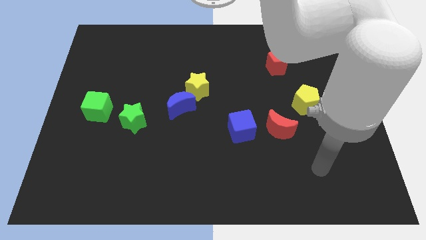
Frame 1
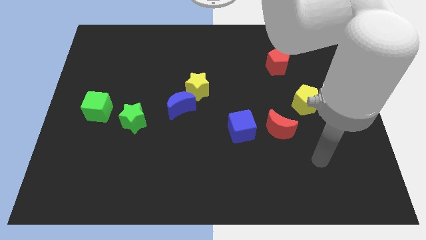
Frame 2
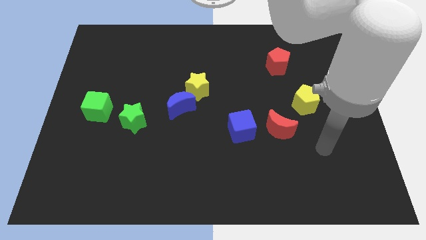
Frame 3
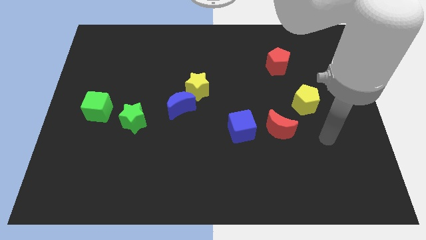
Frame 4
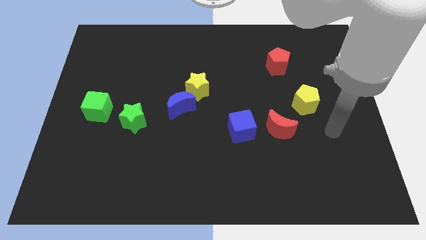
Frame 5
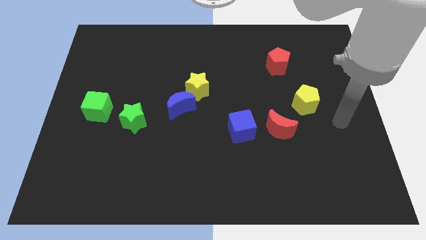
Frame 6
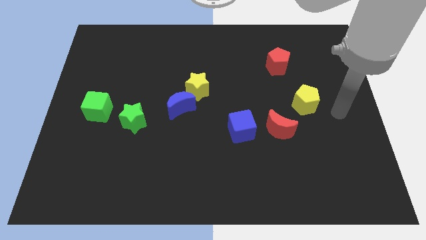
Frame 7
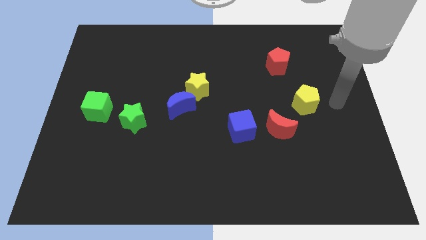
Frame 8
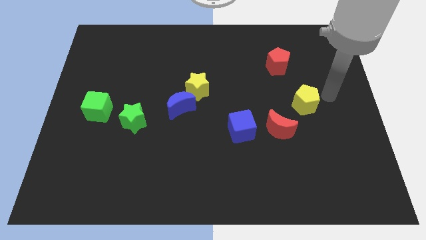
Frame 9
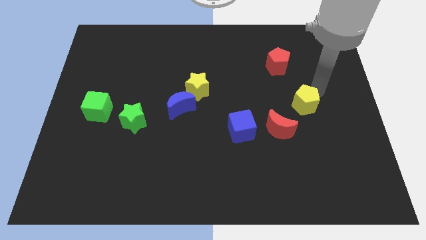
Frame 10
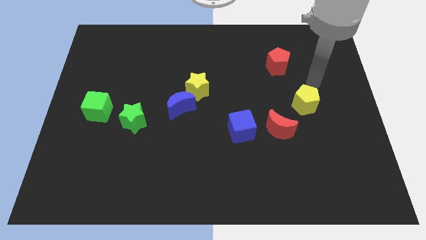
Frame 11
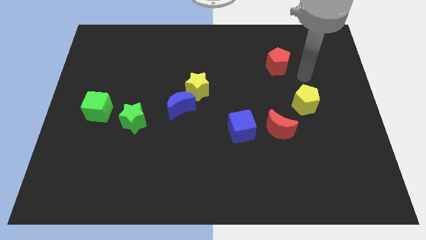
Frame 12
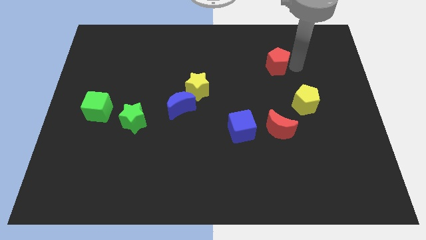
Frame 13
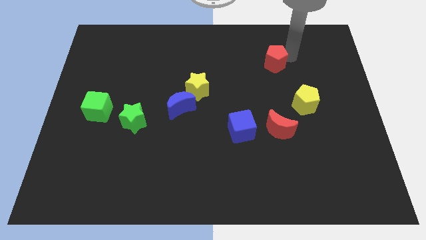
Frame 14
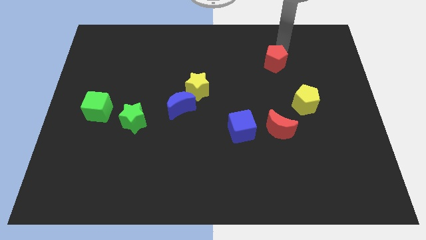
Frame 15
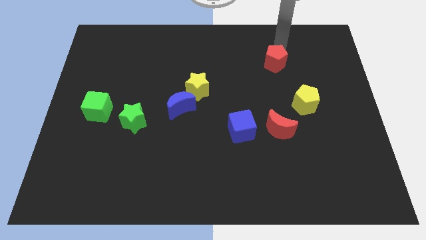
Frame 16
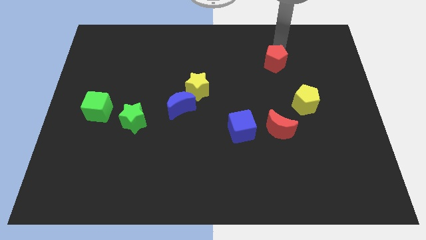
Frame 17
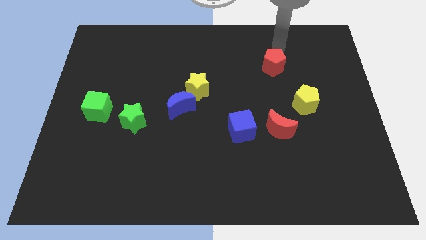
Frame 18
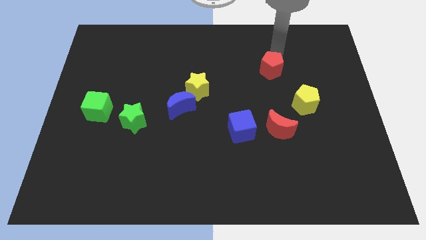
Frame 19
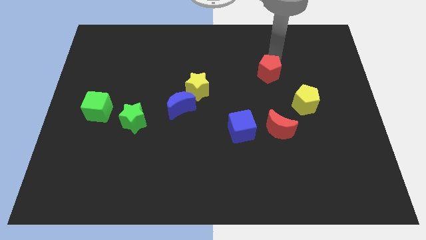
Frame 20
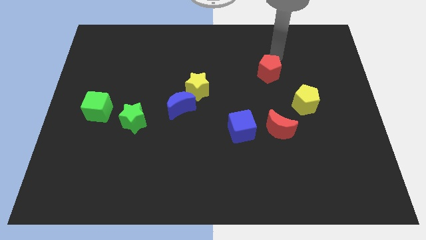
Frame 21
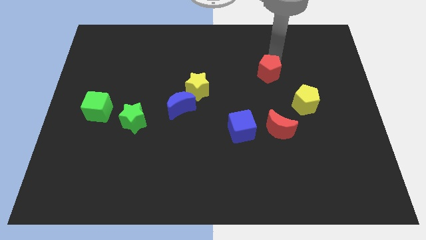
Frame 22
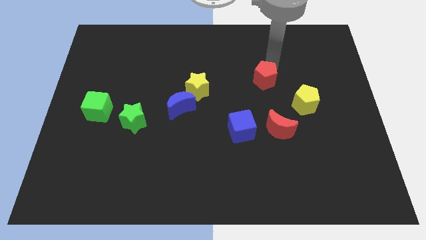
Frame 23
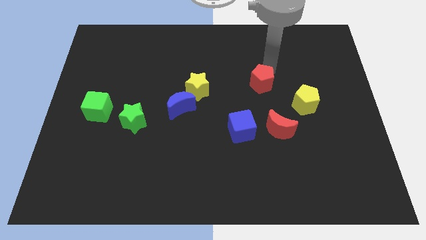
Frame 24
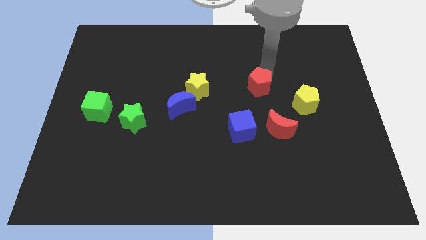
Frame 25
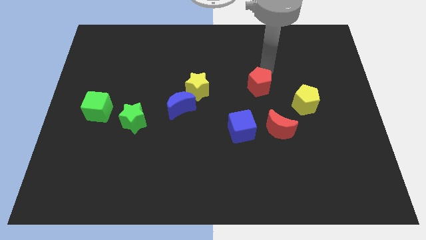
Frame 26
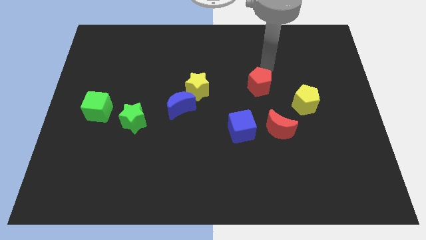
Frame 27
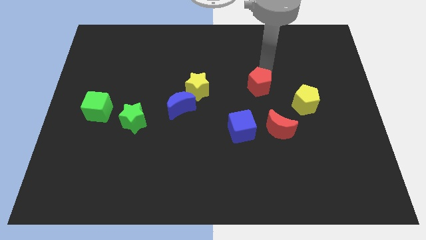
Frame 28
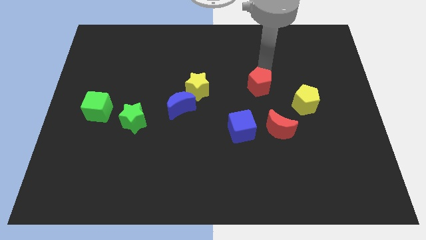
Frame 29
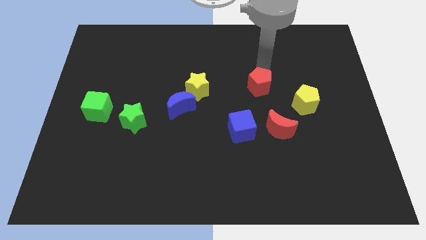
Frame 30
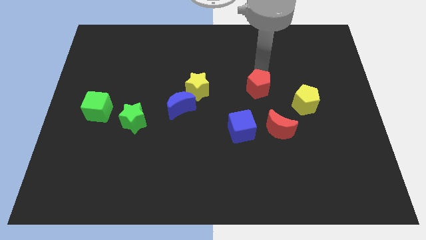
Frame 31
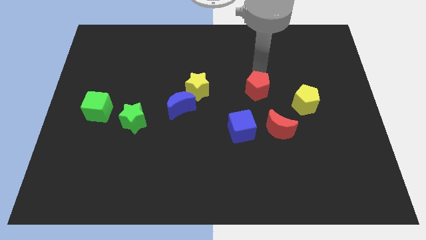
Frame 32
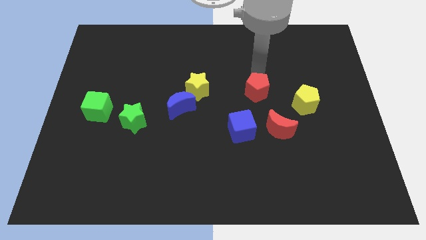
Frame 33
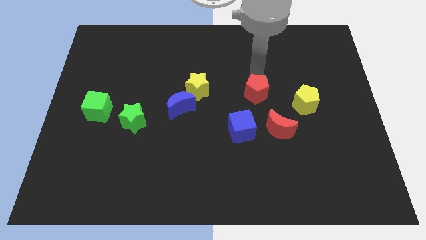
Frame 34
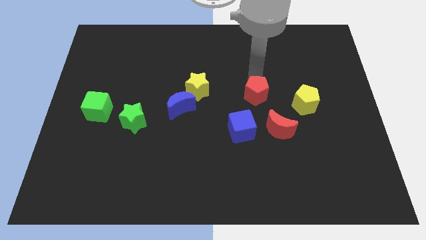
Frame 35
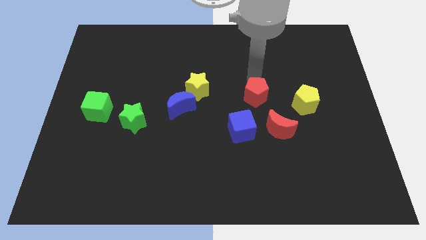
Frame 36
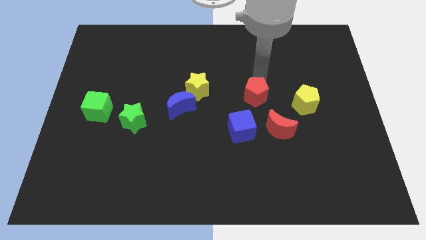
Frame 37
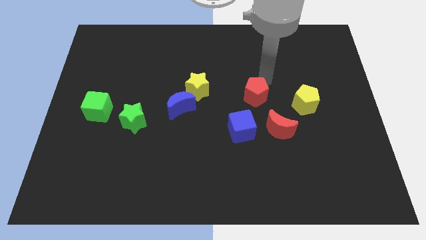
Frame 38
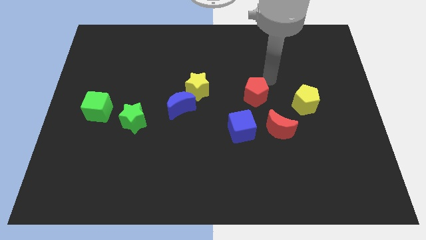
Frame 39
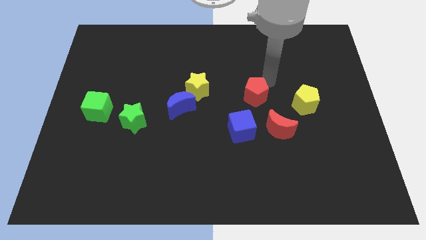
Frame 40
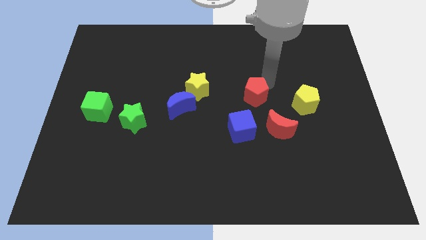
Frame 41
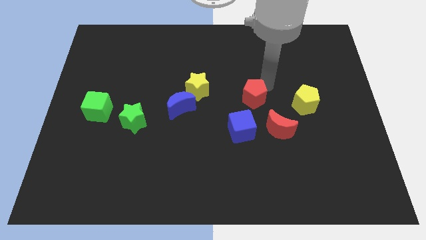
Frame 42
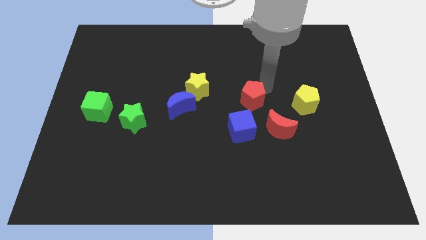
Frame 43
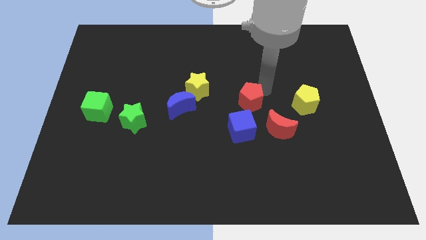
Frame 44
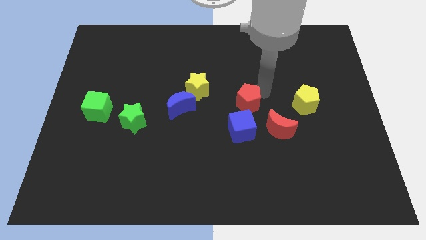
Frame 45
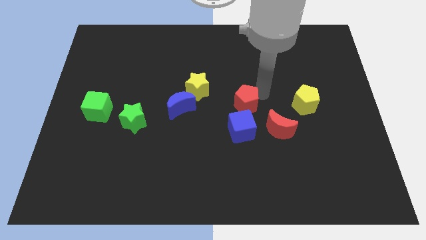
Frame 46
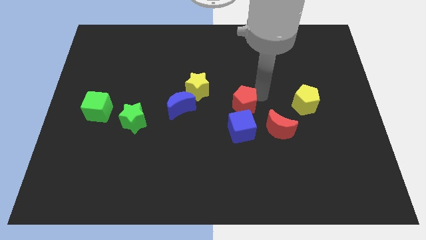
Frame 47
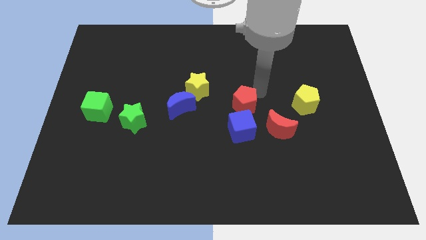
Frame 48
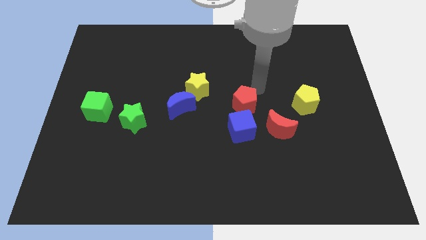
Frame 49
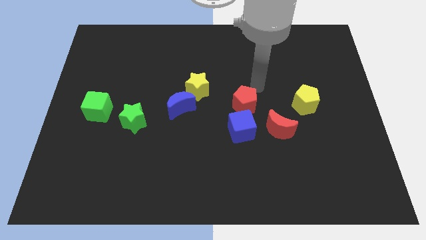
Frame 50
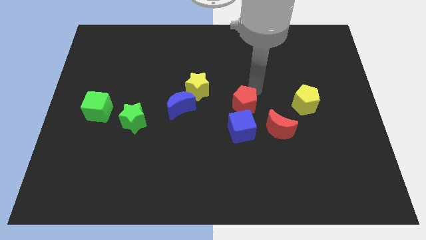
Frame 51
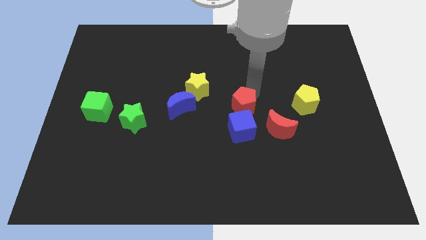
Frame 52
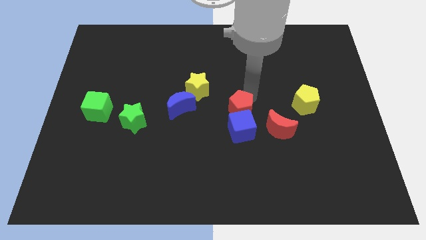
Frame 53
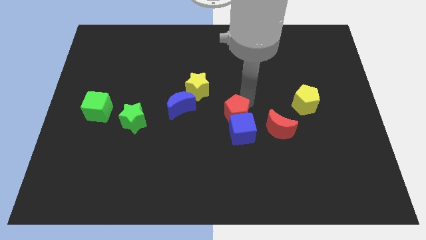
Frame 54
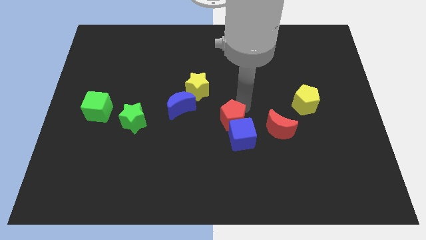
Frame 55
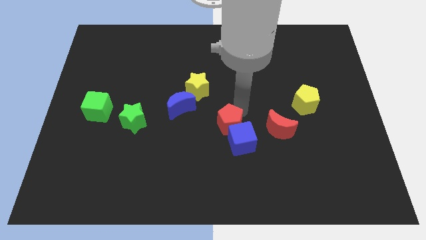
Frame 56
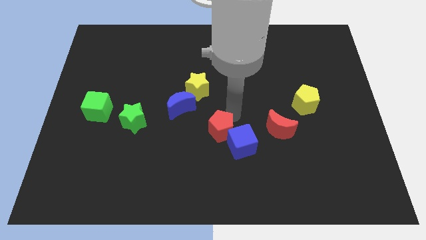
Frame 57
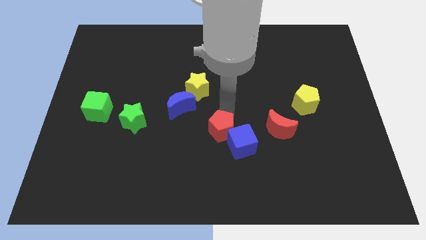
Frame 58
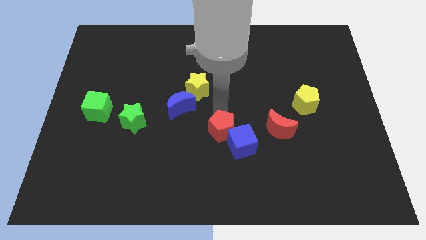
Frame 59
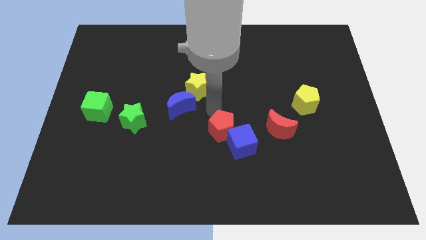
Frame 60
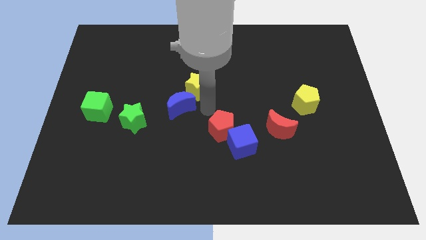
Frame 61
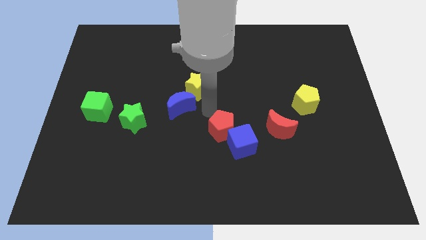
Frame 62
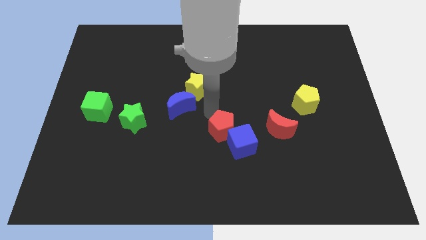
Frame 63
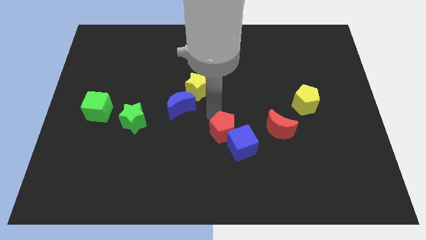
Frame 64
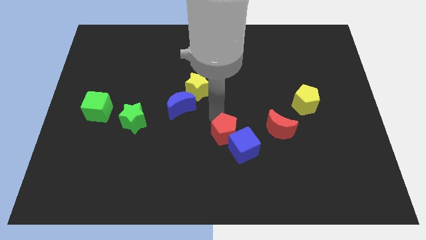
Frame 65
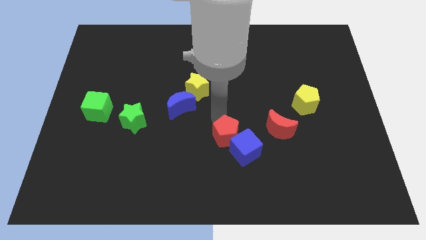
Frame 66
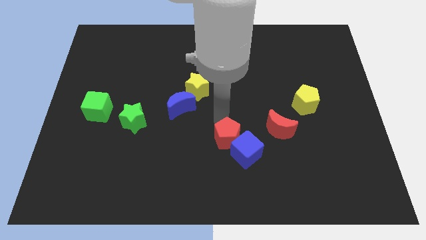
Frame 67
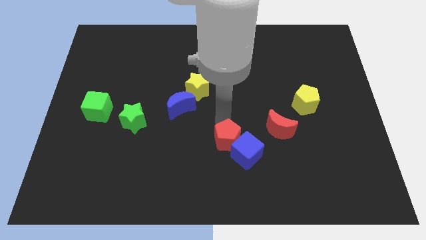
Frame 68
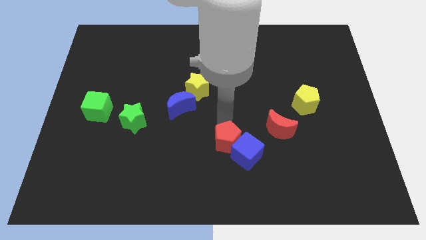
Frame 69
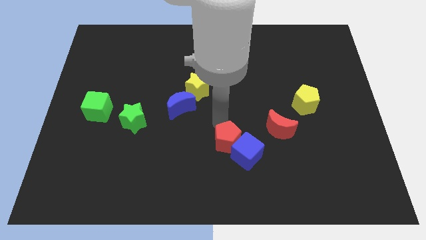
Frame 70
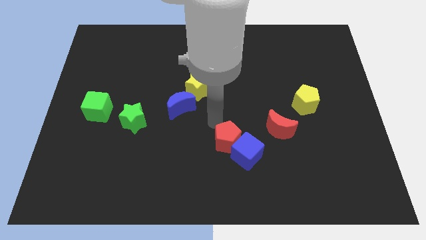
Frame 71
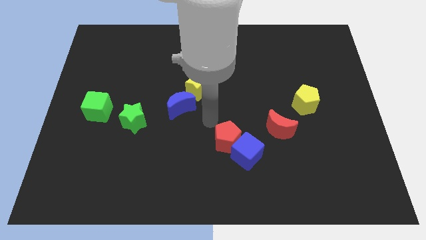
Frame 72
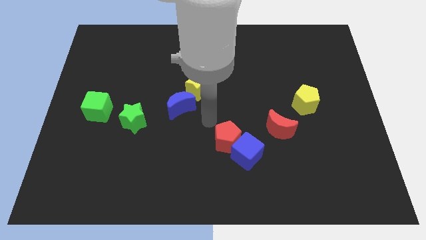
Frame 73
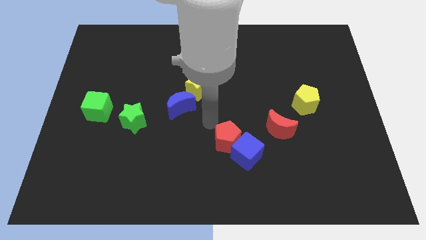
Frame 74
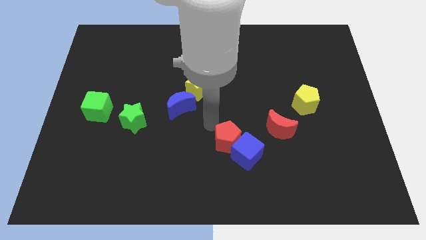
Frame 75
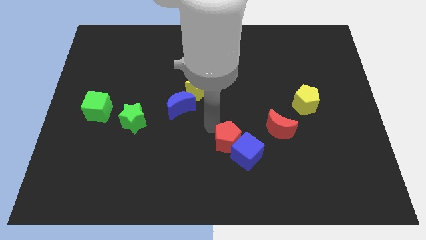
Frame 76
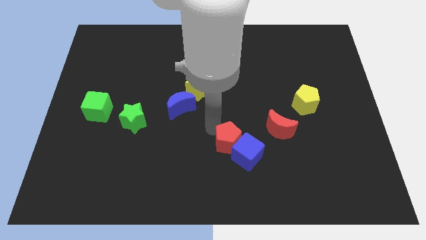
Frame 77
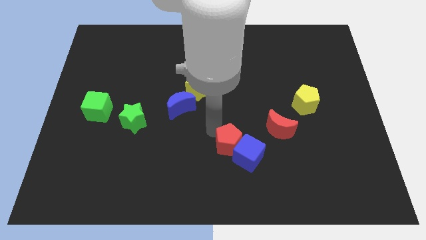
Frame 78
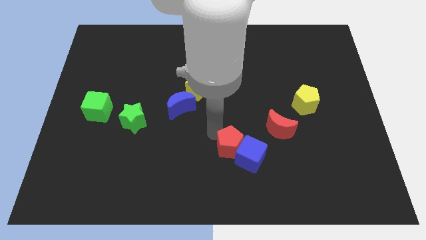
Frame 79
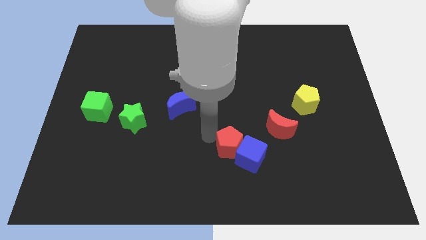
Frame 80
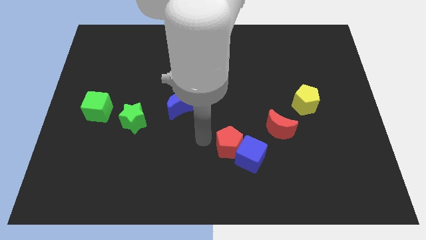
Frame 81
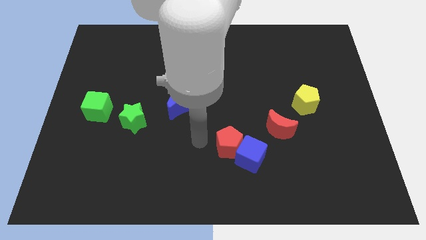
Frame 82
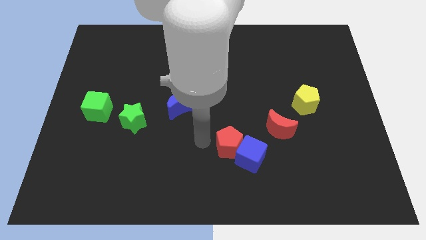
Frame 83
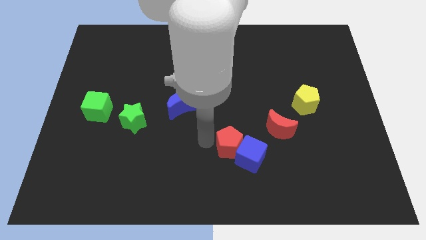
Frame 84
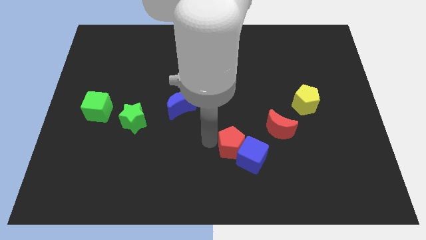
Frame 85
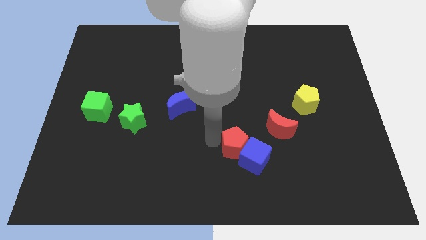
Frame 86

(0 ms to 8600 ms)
move the red pentagon diagonally down and to the left of the red moon

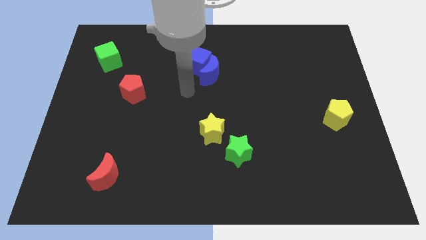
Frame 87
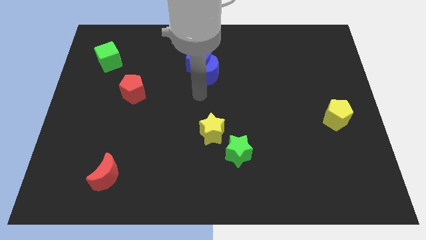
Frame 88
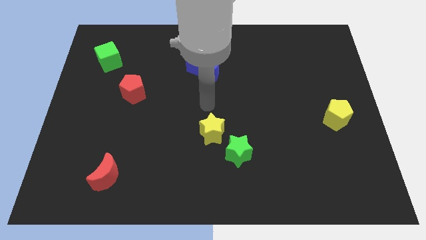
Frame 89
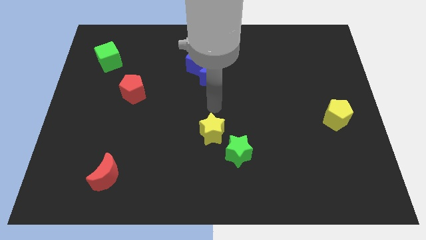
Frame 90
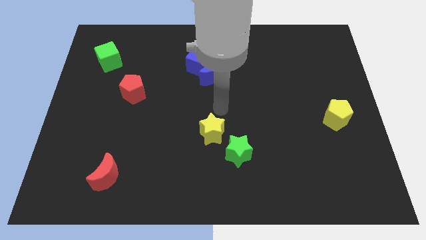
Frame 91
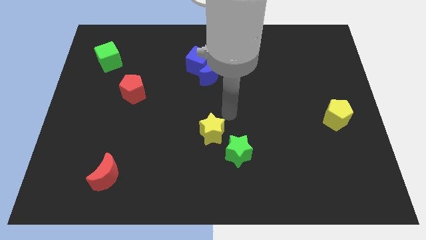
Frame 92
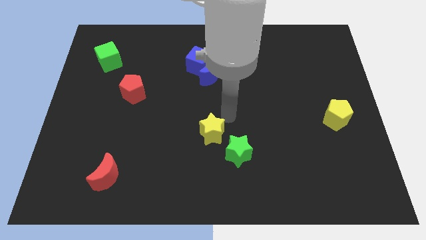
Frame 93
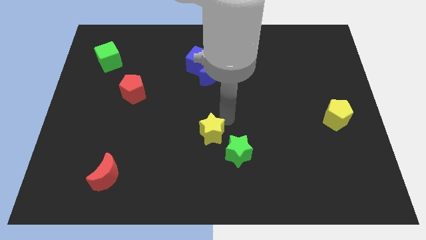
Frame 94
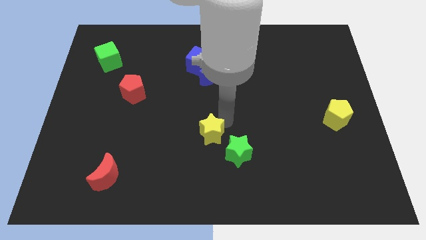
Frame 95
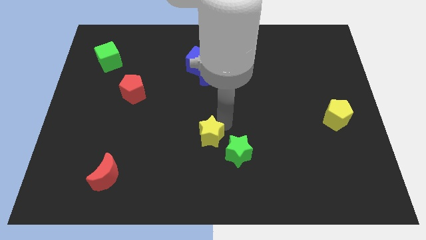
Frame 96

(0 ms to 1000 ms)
move the yellow star to the left of the green star
